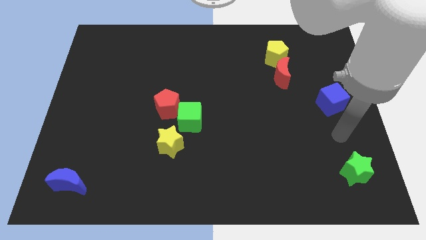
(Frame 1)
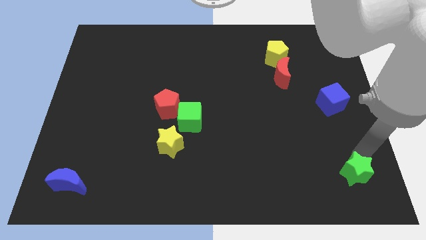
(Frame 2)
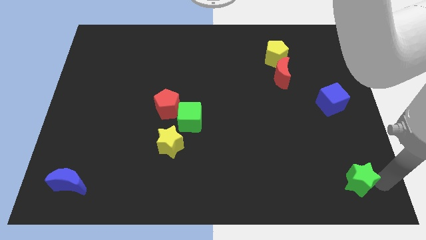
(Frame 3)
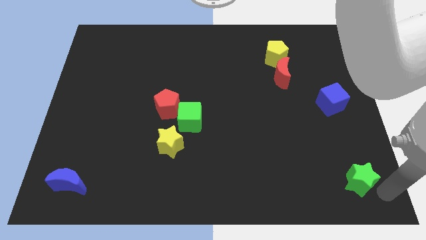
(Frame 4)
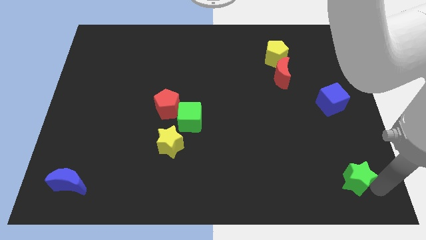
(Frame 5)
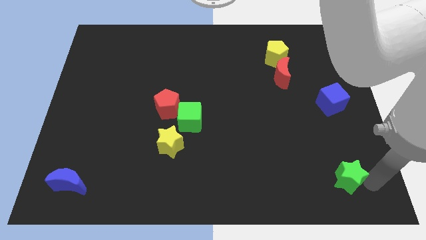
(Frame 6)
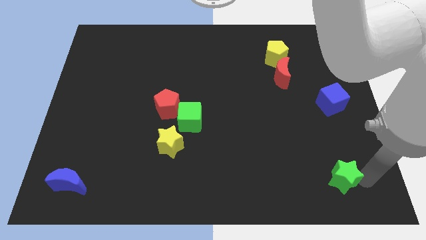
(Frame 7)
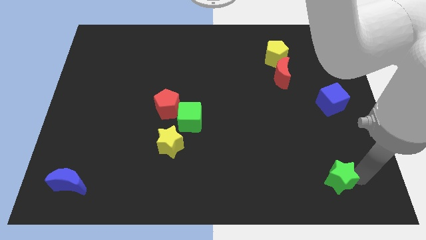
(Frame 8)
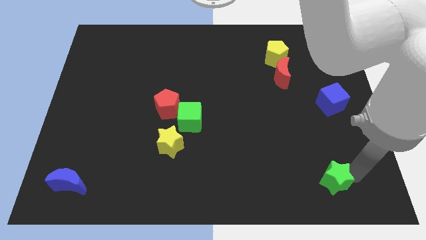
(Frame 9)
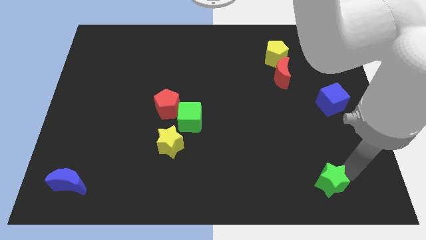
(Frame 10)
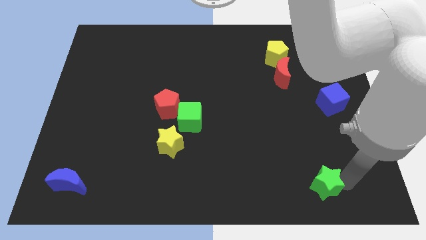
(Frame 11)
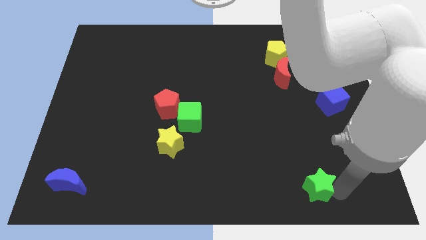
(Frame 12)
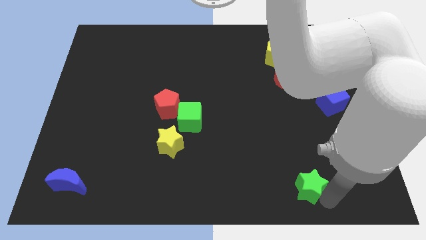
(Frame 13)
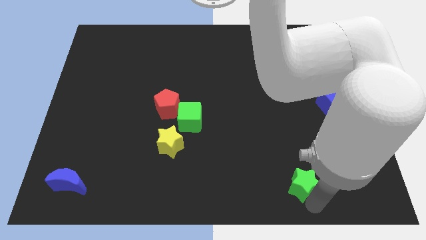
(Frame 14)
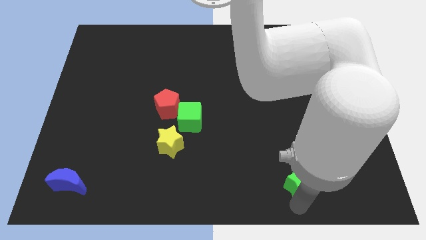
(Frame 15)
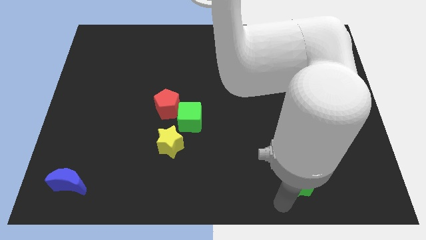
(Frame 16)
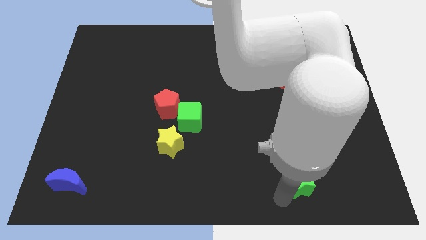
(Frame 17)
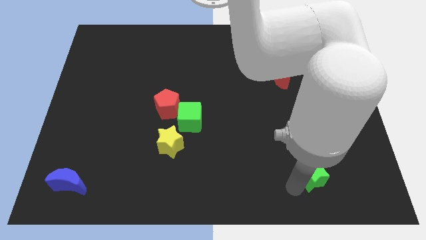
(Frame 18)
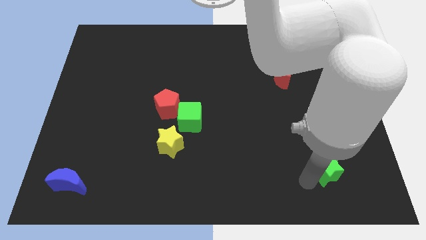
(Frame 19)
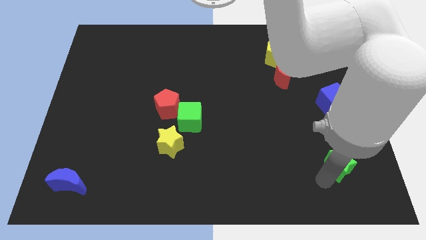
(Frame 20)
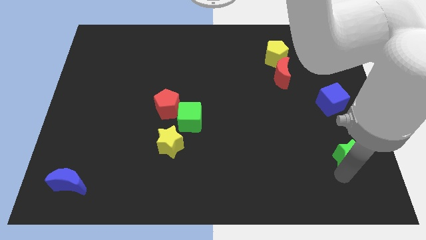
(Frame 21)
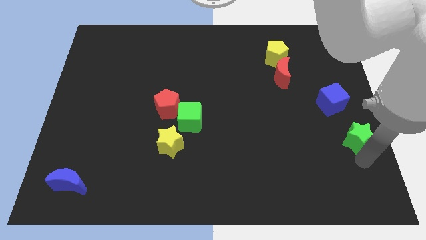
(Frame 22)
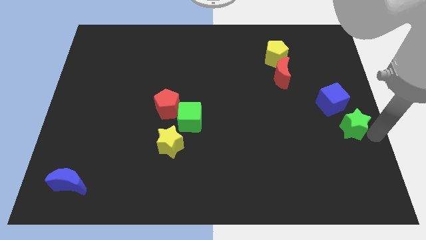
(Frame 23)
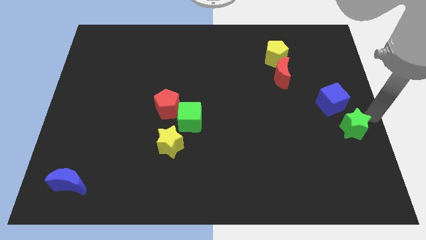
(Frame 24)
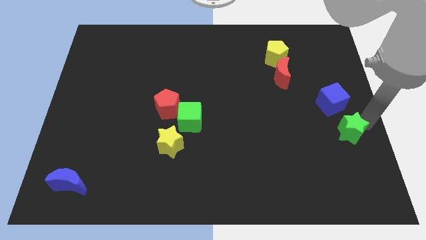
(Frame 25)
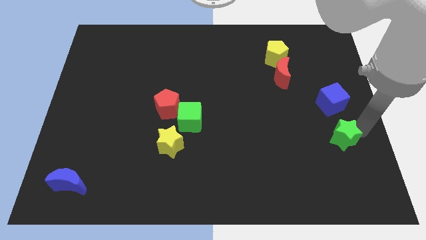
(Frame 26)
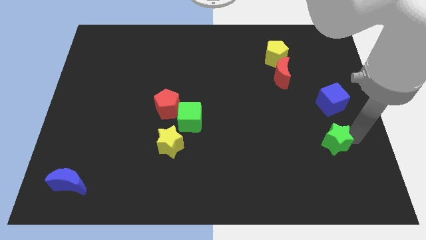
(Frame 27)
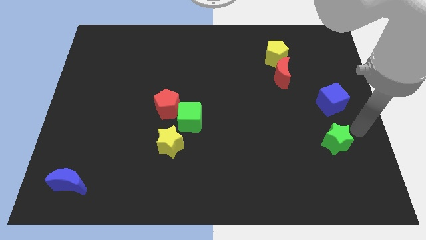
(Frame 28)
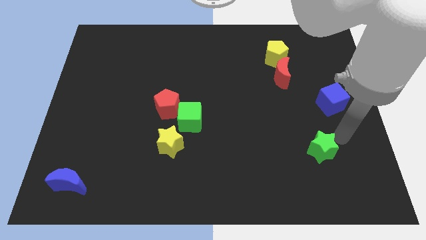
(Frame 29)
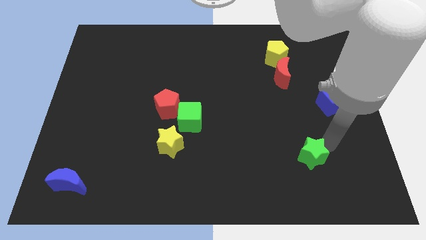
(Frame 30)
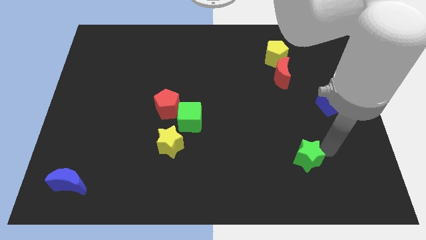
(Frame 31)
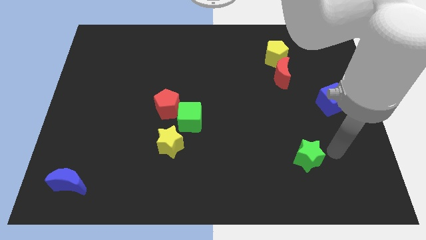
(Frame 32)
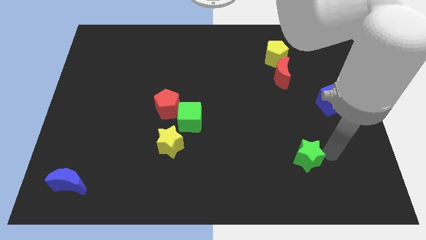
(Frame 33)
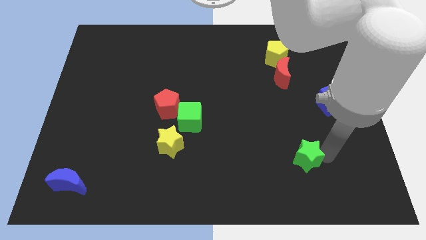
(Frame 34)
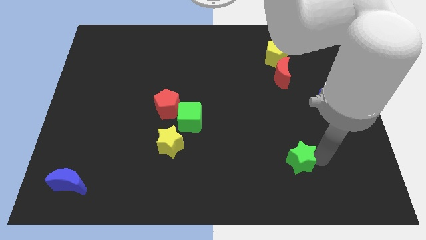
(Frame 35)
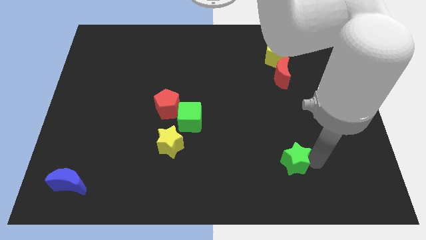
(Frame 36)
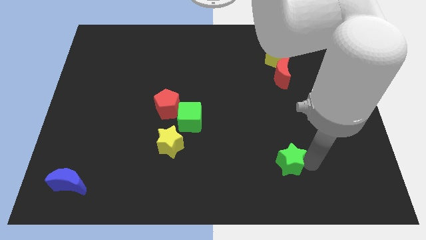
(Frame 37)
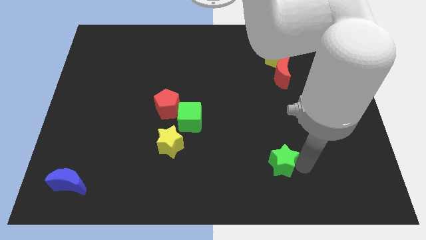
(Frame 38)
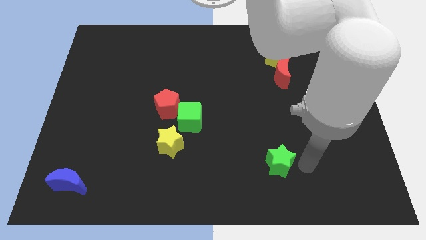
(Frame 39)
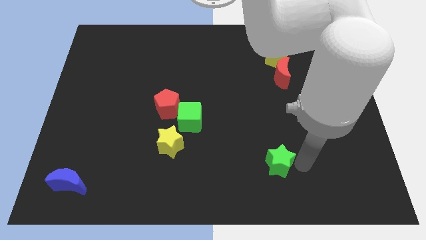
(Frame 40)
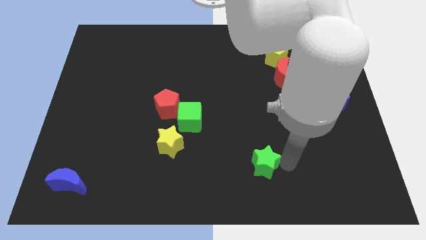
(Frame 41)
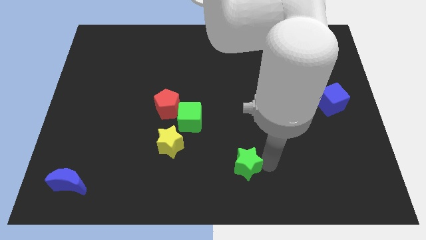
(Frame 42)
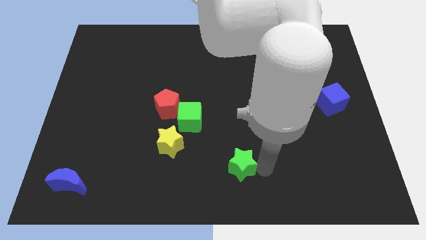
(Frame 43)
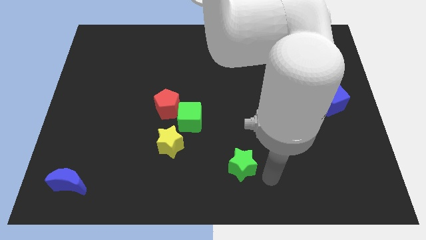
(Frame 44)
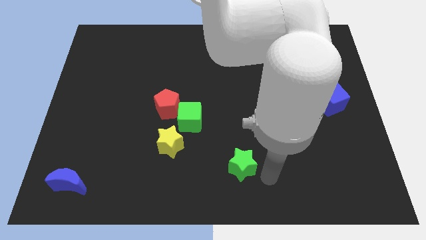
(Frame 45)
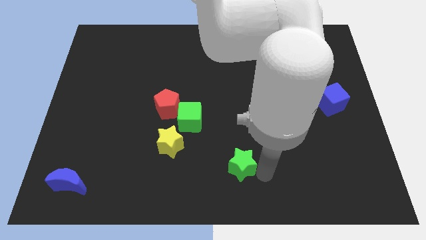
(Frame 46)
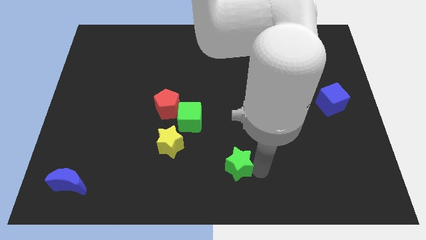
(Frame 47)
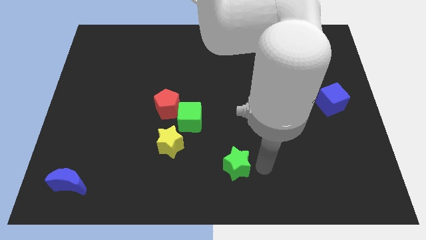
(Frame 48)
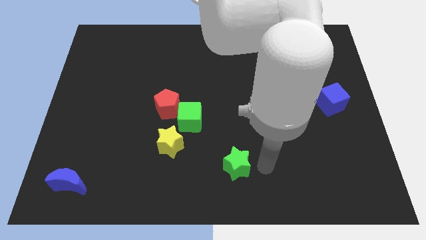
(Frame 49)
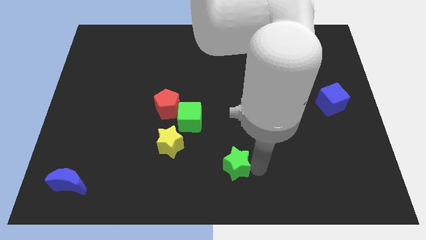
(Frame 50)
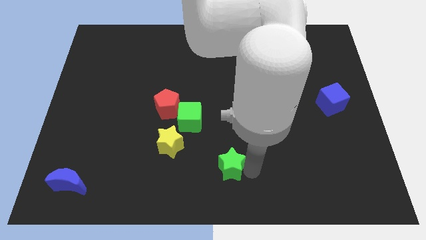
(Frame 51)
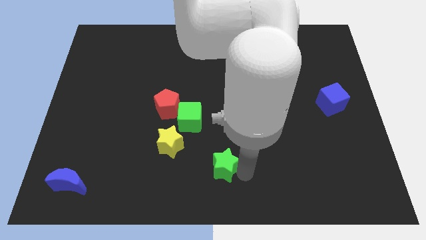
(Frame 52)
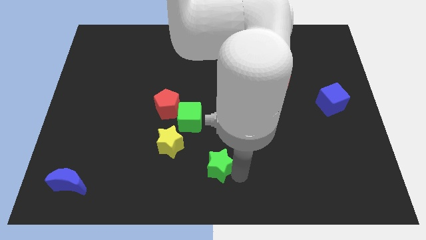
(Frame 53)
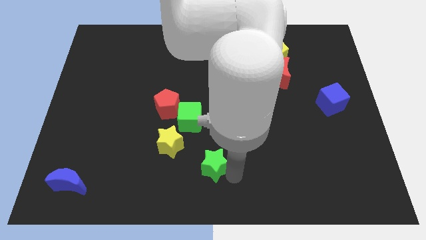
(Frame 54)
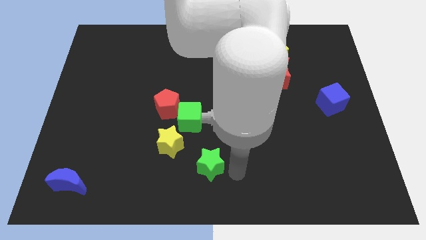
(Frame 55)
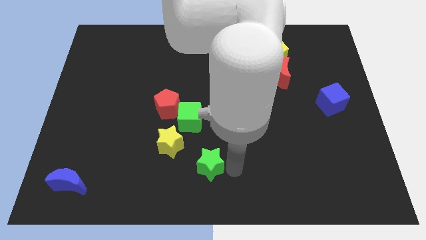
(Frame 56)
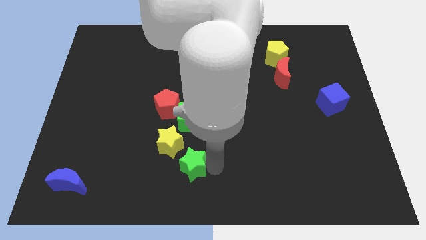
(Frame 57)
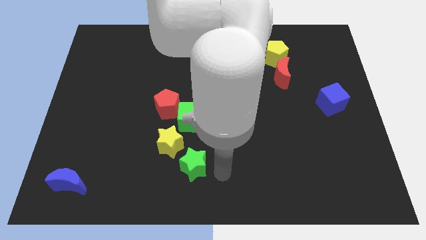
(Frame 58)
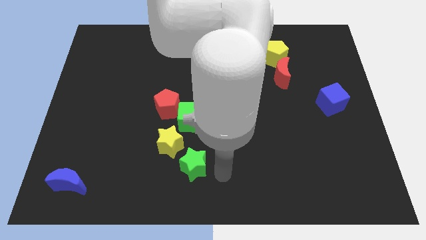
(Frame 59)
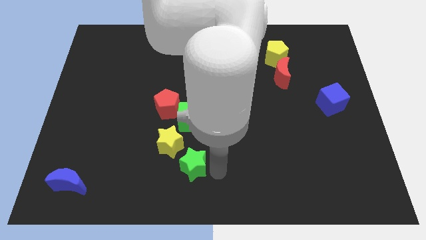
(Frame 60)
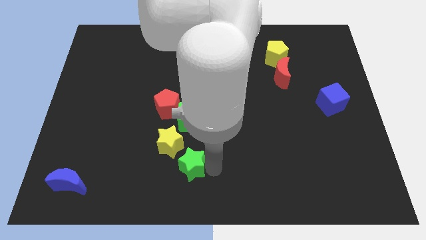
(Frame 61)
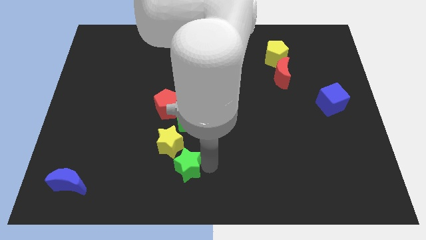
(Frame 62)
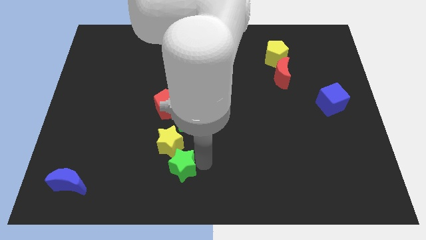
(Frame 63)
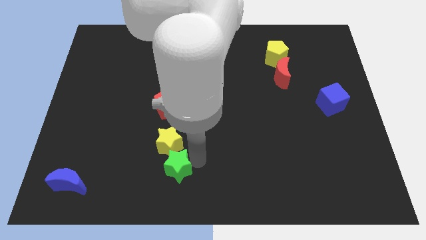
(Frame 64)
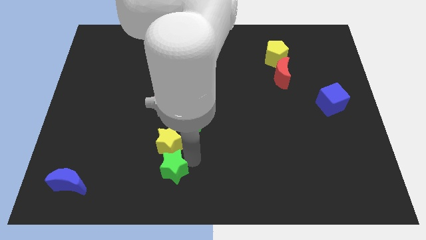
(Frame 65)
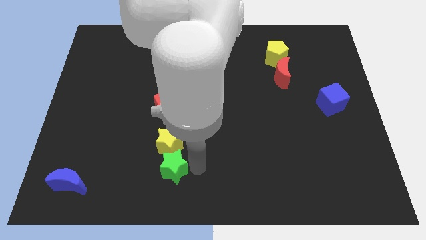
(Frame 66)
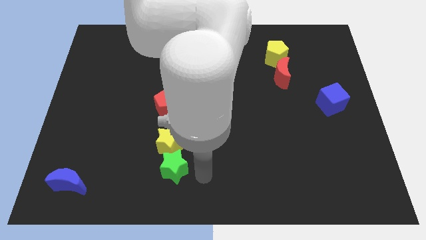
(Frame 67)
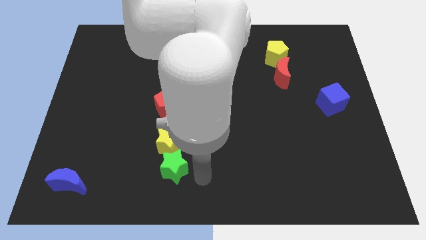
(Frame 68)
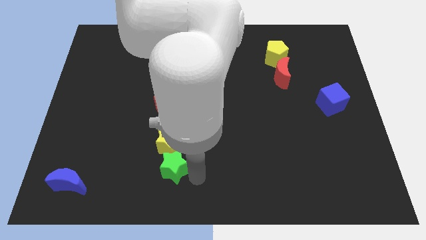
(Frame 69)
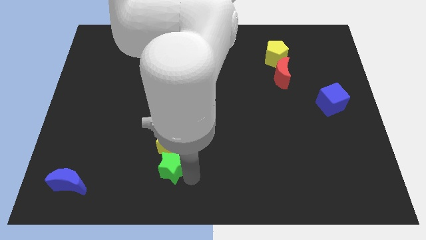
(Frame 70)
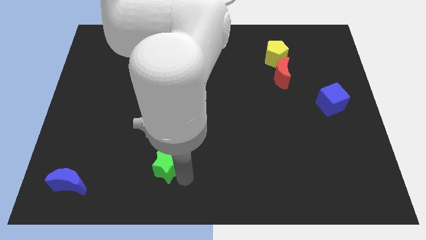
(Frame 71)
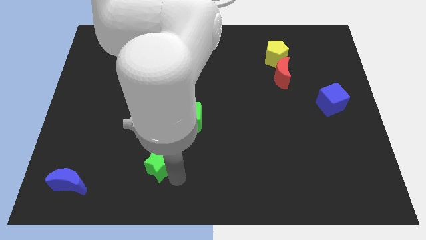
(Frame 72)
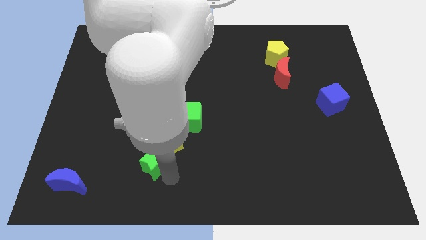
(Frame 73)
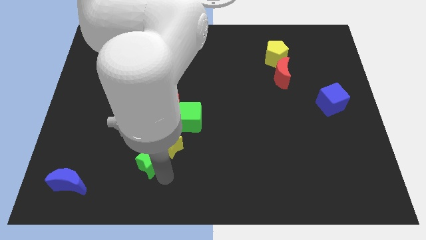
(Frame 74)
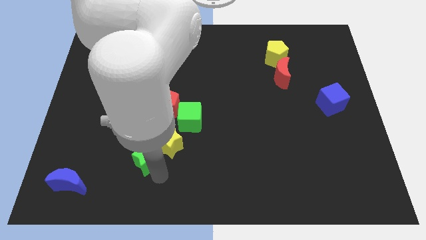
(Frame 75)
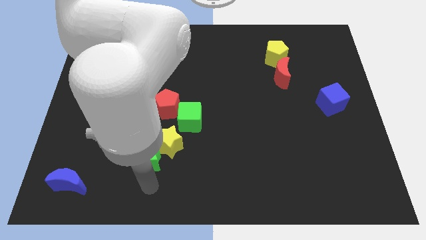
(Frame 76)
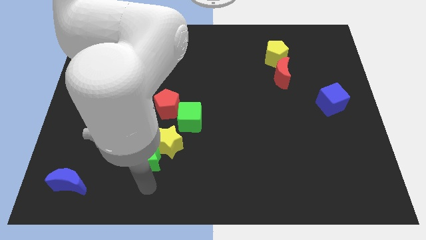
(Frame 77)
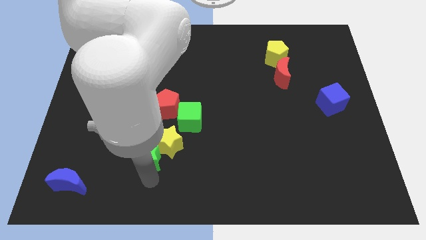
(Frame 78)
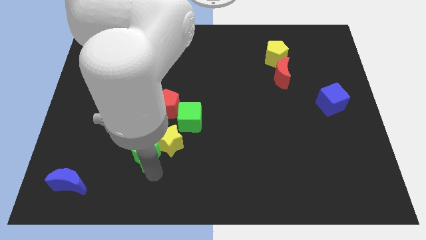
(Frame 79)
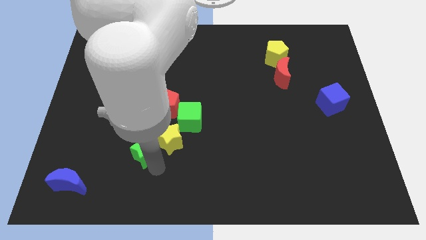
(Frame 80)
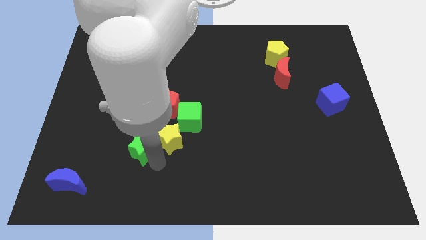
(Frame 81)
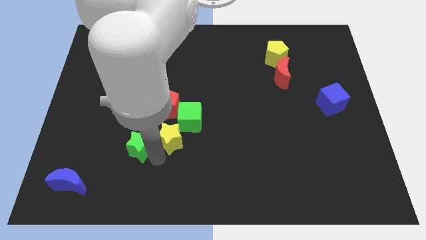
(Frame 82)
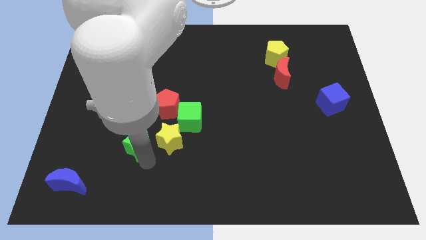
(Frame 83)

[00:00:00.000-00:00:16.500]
push the green star diagonally down and to the left of the red pentagon
